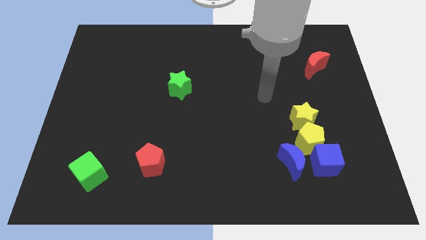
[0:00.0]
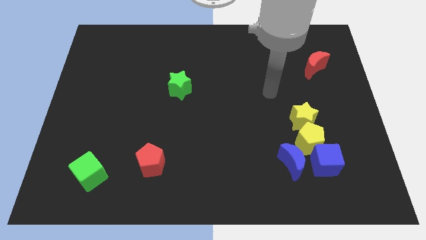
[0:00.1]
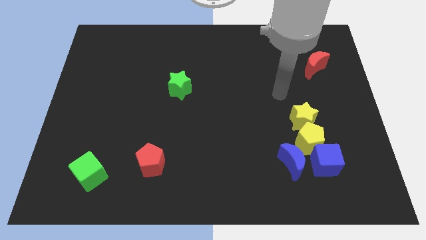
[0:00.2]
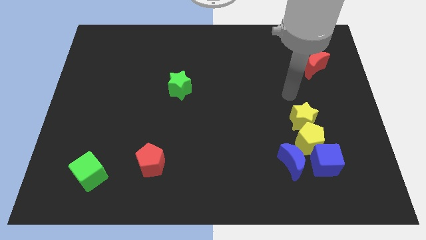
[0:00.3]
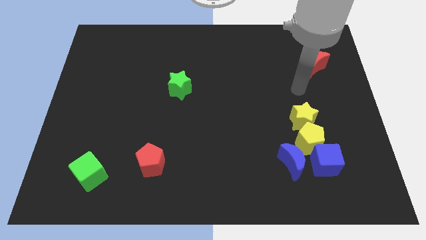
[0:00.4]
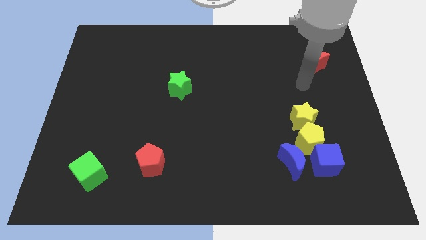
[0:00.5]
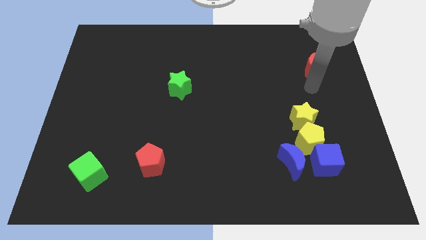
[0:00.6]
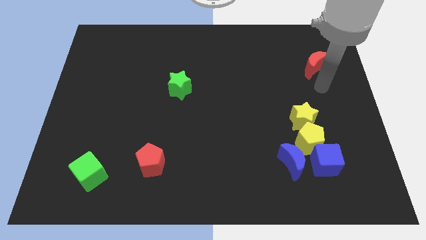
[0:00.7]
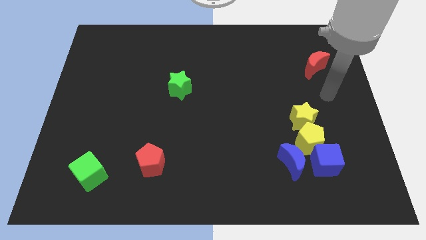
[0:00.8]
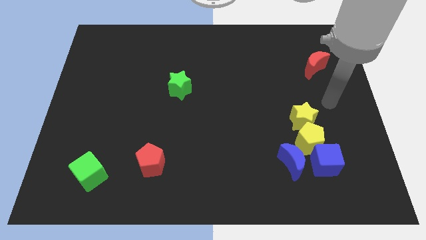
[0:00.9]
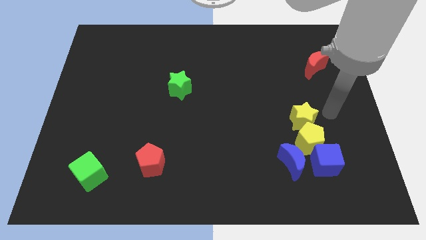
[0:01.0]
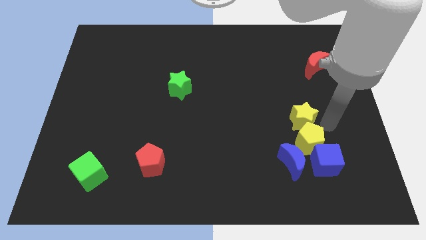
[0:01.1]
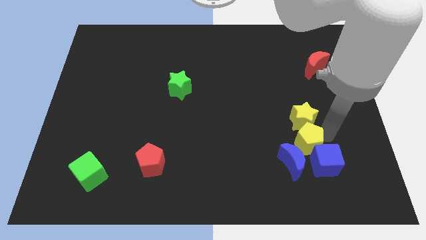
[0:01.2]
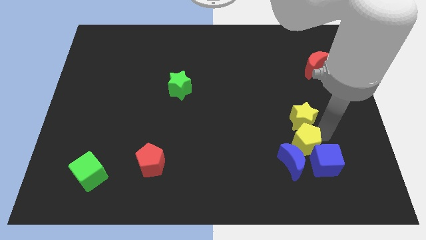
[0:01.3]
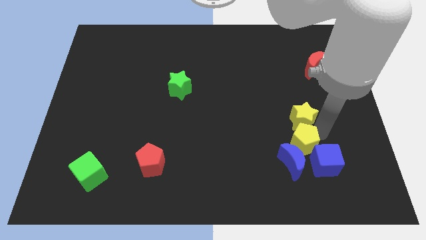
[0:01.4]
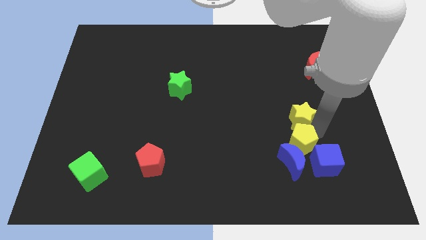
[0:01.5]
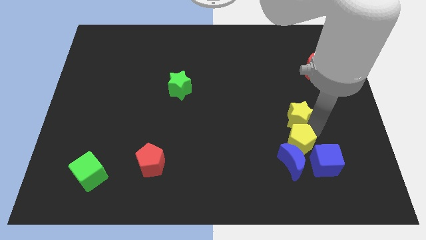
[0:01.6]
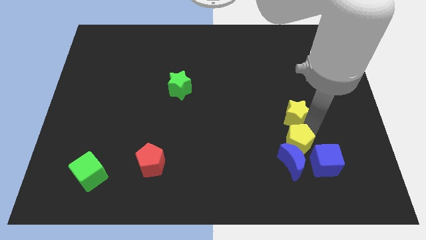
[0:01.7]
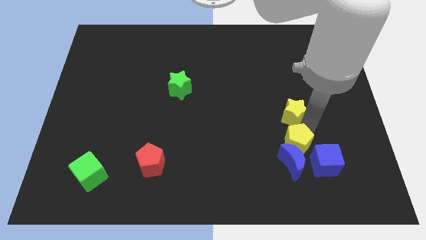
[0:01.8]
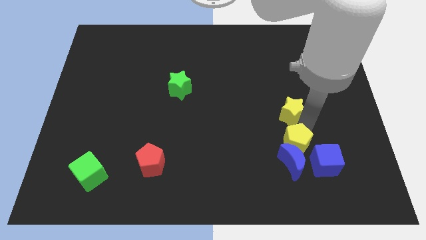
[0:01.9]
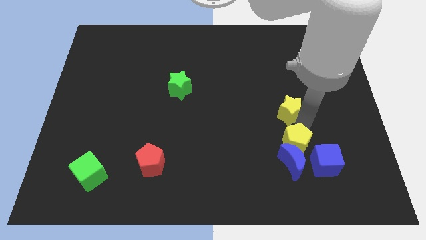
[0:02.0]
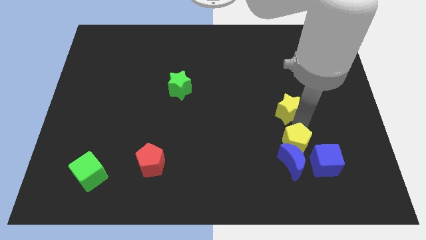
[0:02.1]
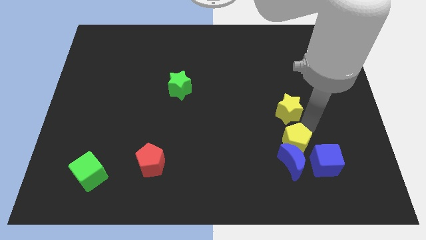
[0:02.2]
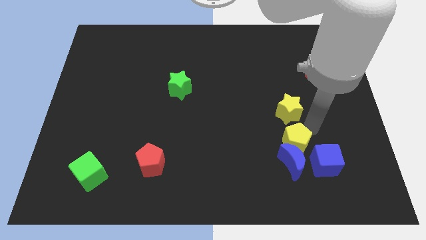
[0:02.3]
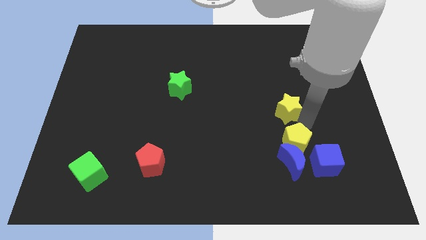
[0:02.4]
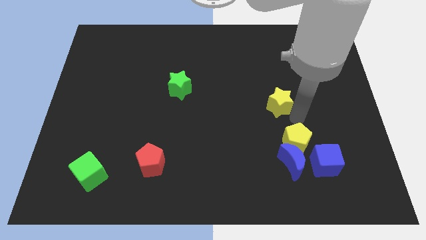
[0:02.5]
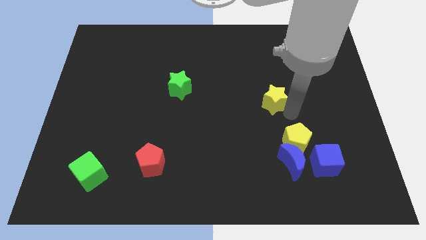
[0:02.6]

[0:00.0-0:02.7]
push the yellow star upwards and then left a bit

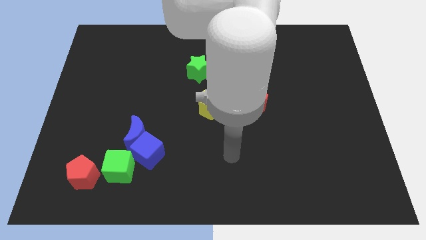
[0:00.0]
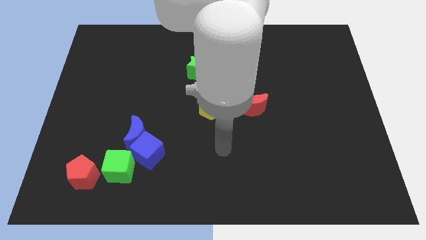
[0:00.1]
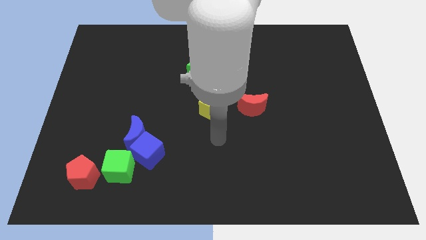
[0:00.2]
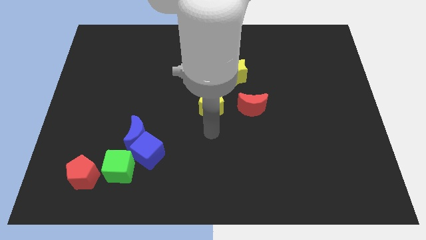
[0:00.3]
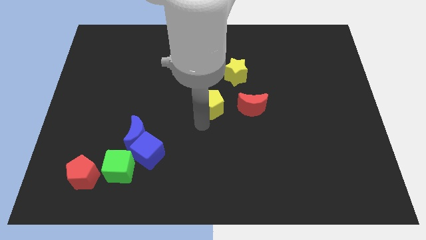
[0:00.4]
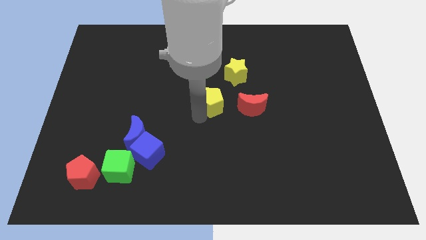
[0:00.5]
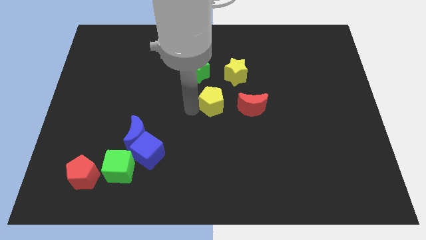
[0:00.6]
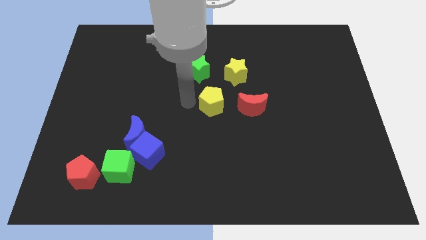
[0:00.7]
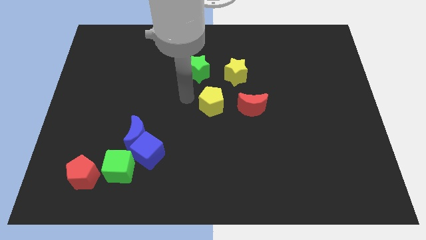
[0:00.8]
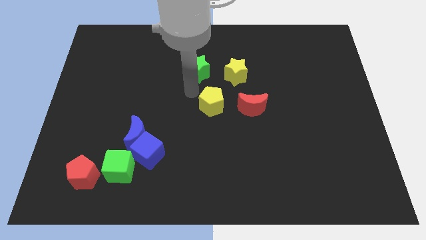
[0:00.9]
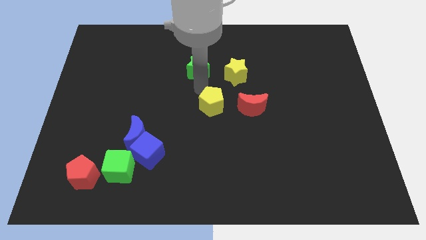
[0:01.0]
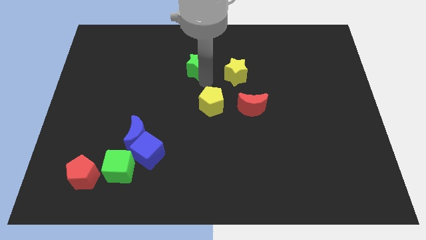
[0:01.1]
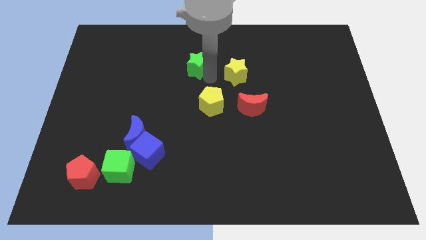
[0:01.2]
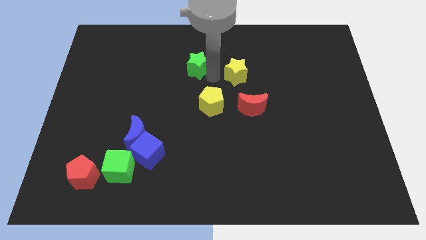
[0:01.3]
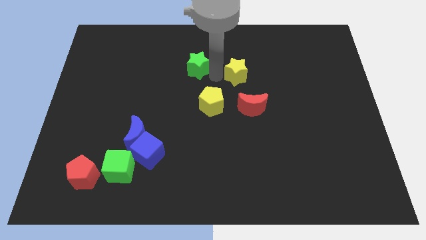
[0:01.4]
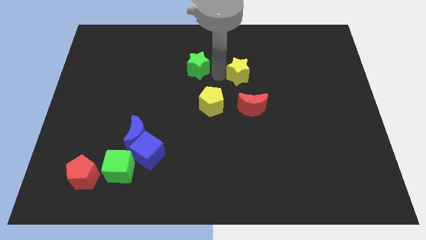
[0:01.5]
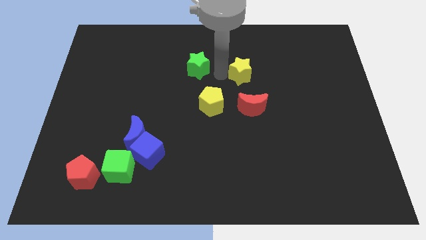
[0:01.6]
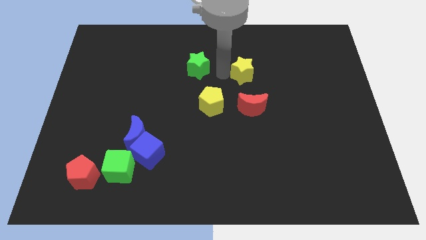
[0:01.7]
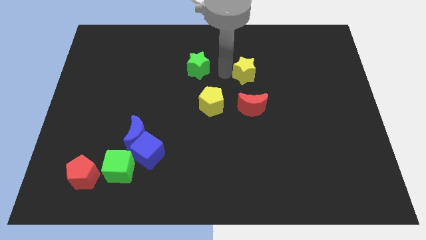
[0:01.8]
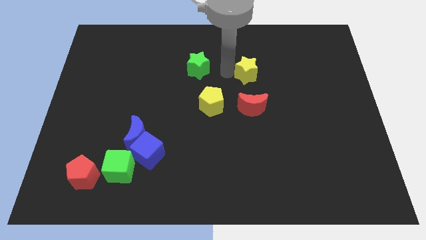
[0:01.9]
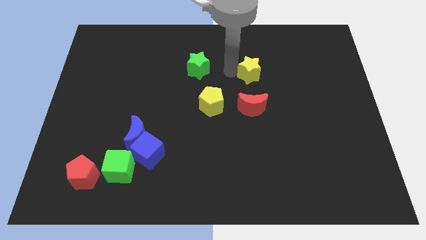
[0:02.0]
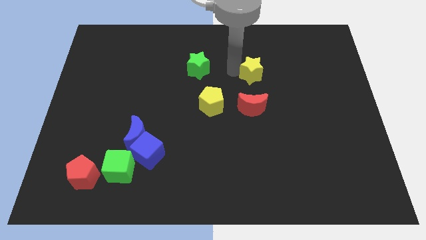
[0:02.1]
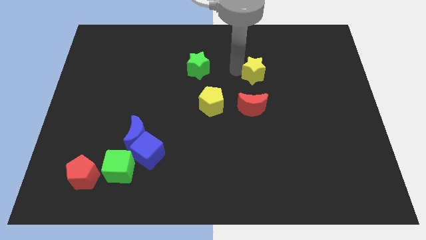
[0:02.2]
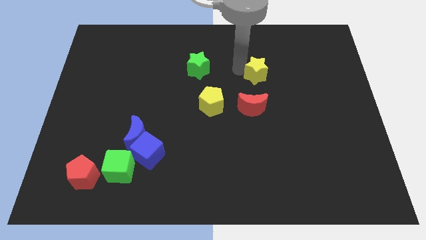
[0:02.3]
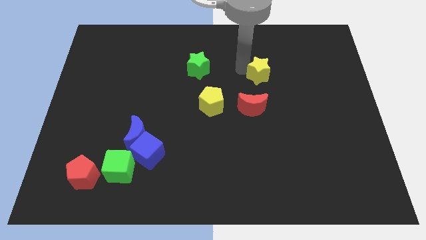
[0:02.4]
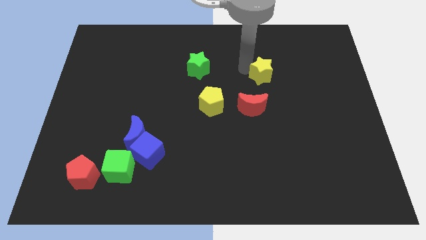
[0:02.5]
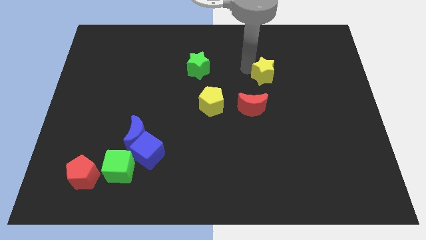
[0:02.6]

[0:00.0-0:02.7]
move the yellow star somewhat right

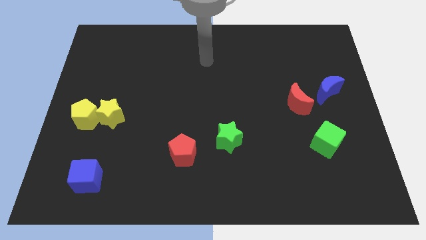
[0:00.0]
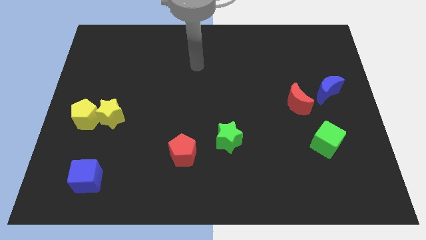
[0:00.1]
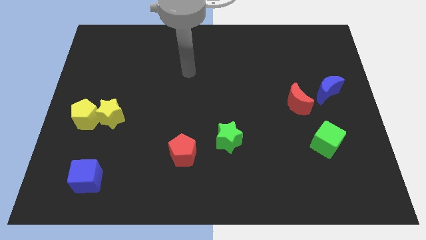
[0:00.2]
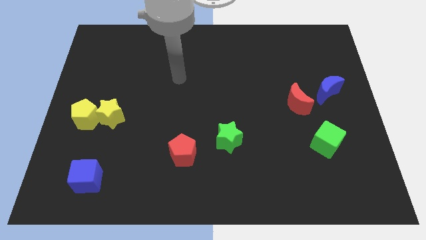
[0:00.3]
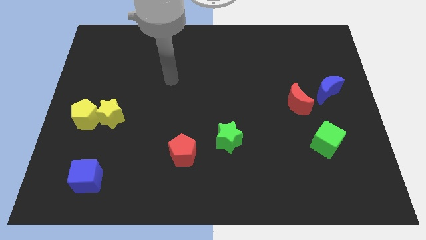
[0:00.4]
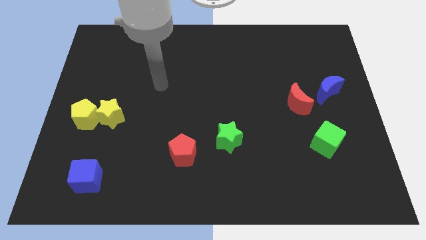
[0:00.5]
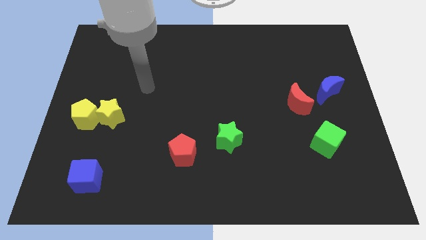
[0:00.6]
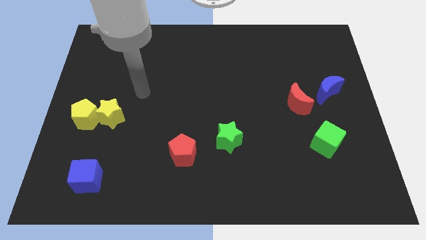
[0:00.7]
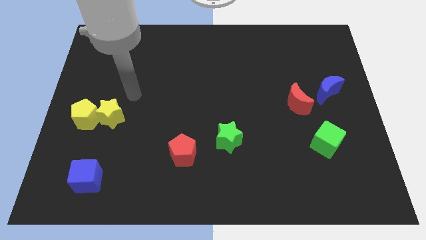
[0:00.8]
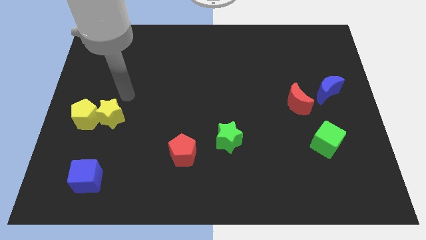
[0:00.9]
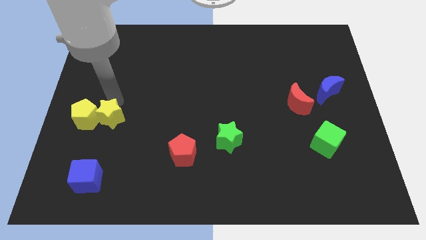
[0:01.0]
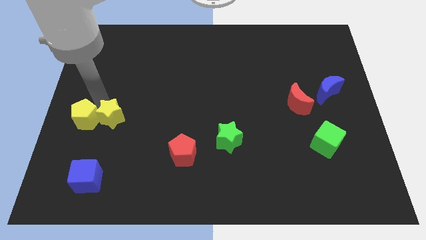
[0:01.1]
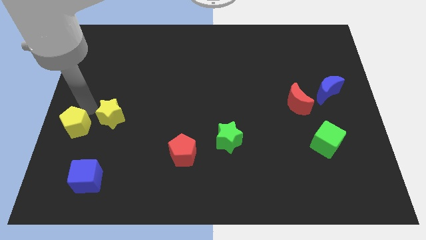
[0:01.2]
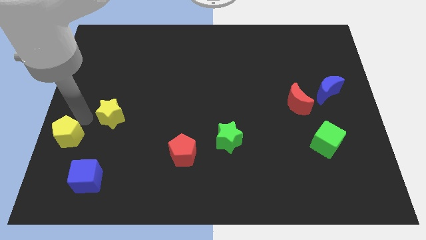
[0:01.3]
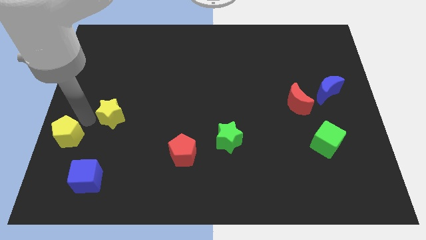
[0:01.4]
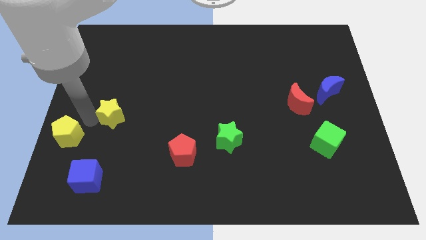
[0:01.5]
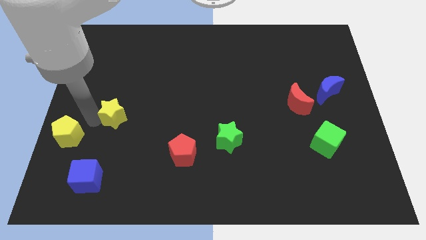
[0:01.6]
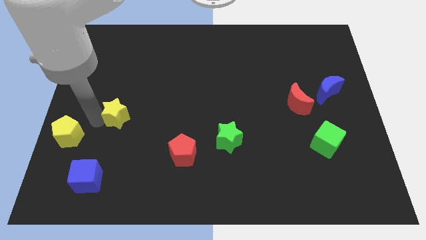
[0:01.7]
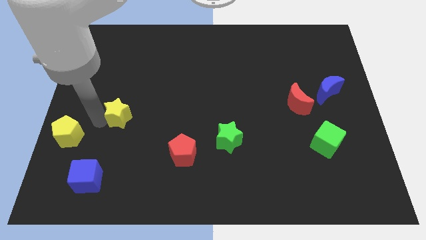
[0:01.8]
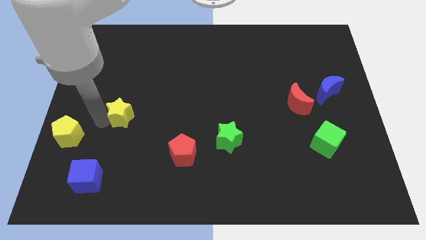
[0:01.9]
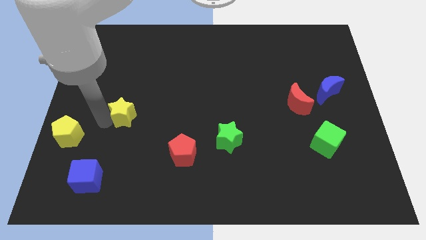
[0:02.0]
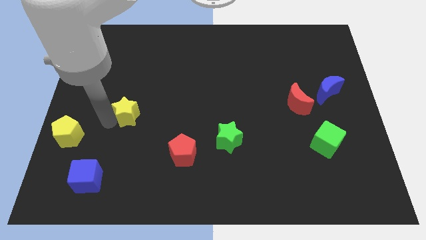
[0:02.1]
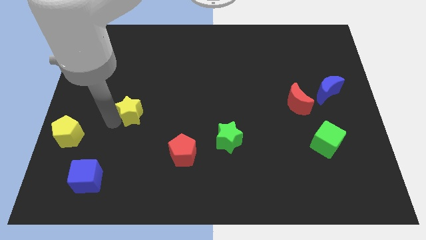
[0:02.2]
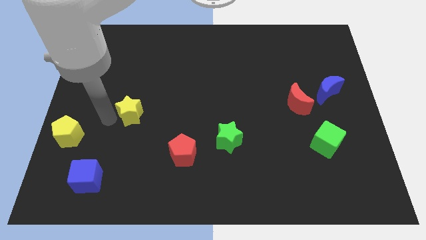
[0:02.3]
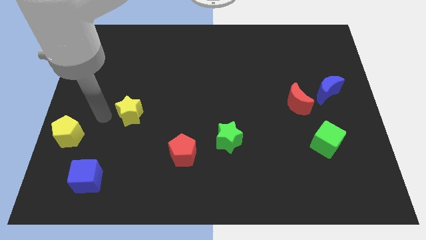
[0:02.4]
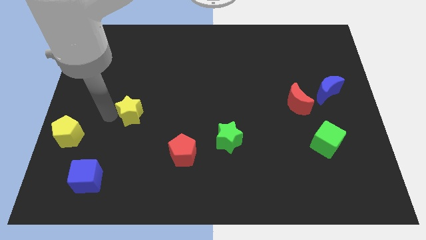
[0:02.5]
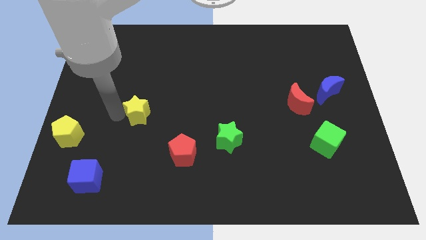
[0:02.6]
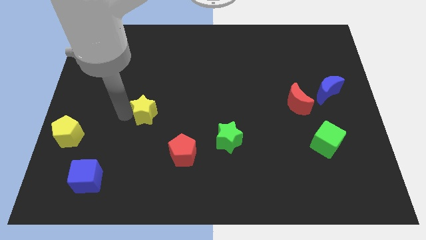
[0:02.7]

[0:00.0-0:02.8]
slightly push the yellow star to the right

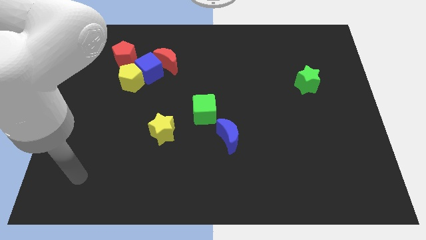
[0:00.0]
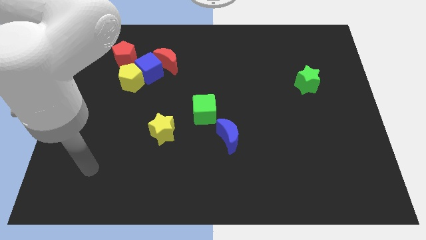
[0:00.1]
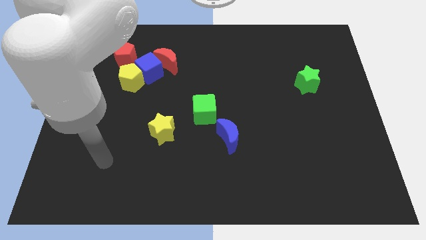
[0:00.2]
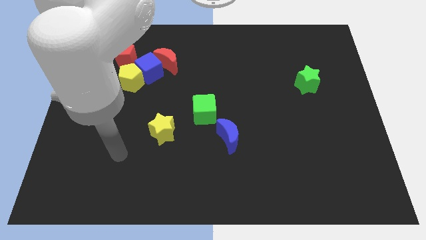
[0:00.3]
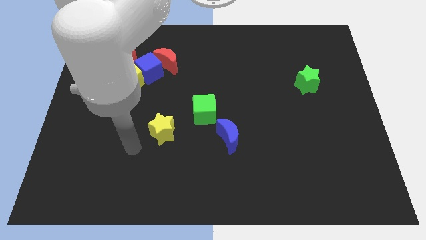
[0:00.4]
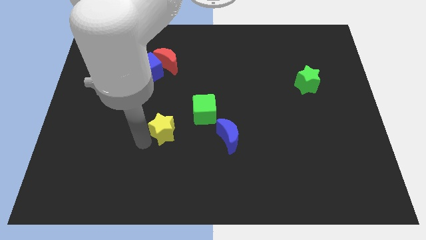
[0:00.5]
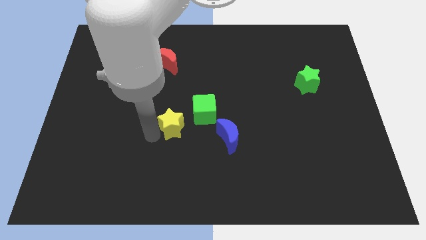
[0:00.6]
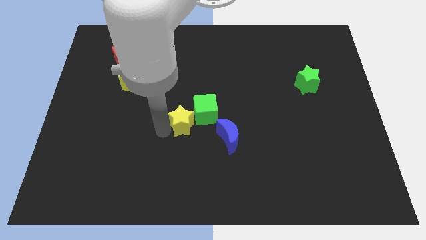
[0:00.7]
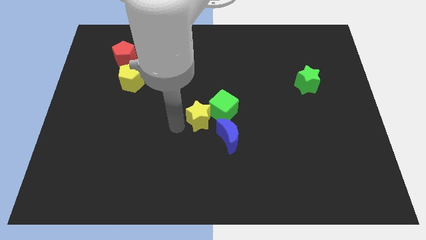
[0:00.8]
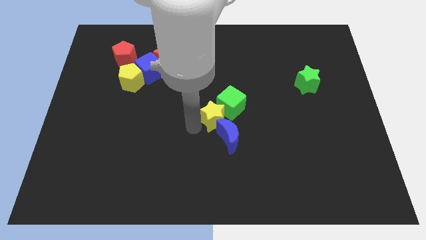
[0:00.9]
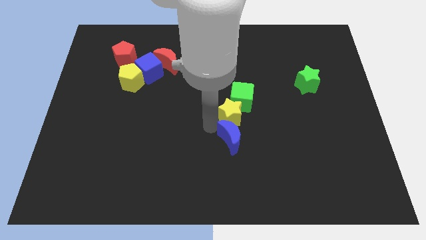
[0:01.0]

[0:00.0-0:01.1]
push the green cube up and then right a little bit
